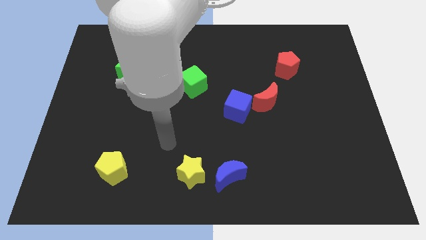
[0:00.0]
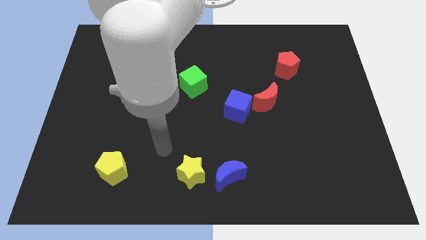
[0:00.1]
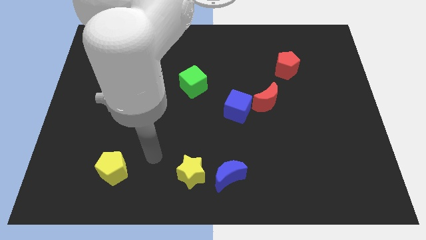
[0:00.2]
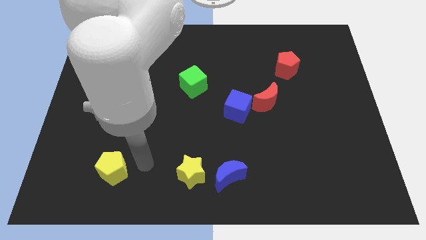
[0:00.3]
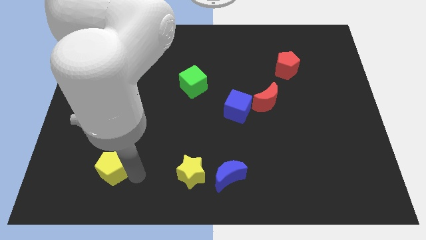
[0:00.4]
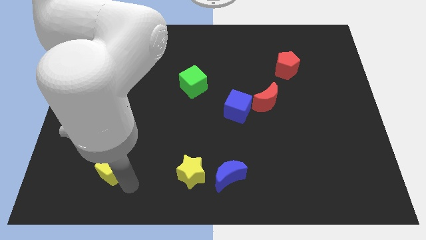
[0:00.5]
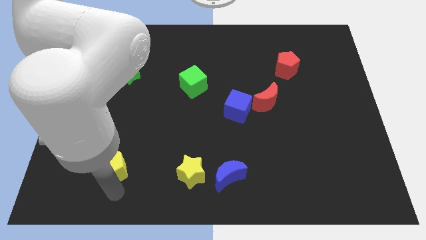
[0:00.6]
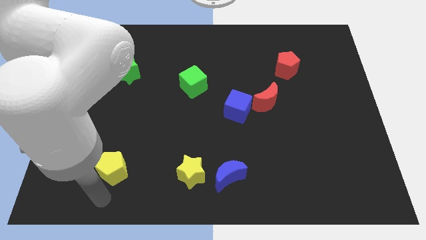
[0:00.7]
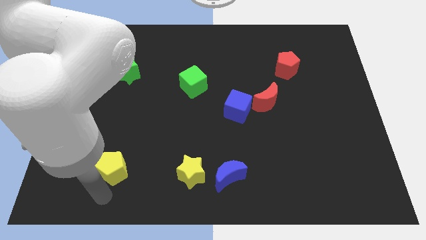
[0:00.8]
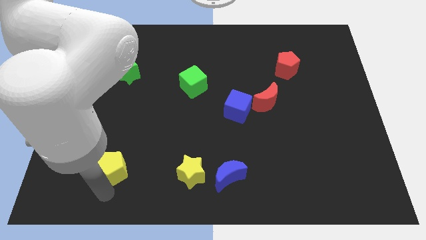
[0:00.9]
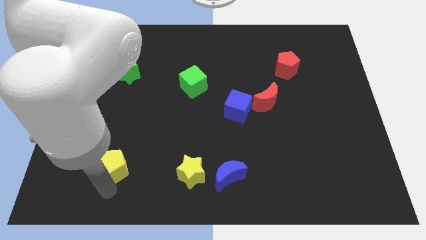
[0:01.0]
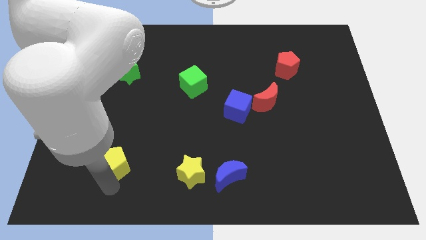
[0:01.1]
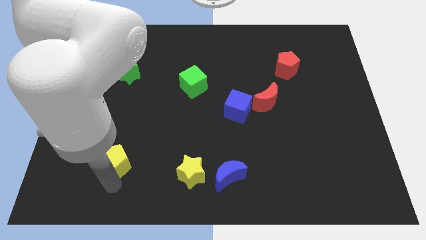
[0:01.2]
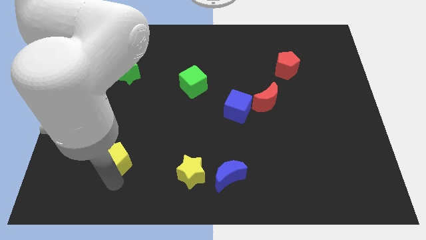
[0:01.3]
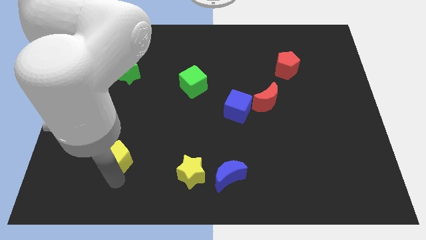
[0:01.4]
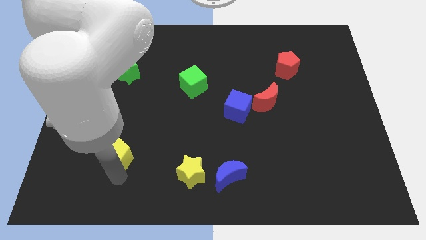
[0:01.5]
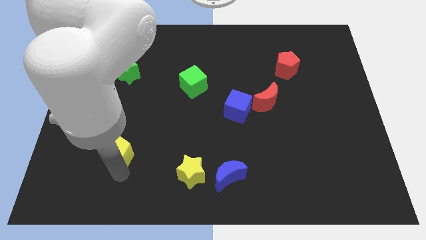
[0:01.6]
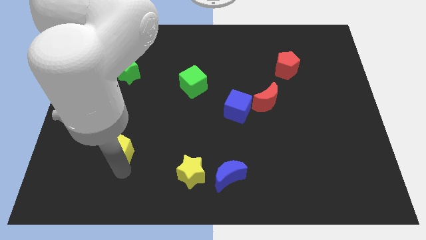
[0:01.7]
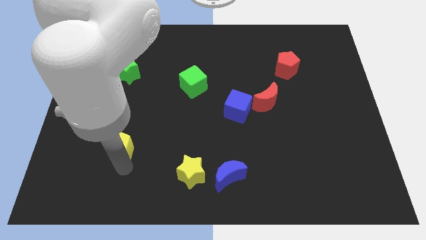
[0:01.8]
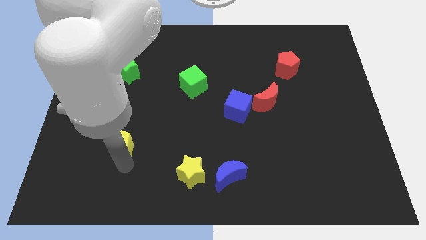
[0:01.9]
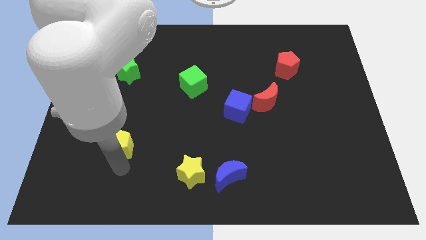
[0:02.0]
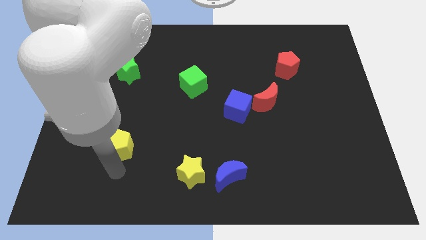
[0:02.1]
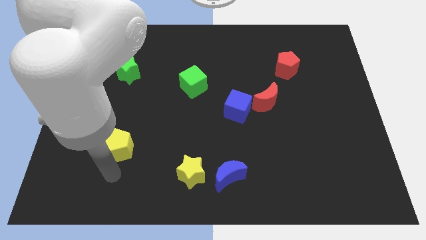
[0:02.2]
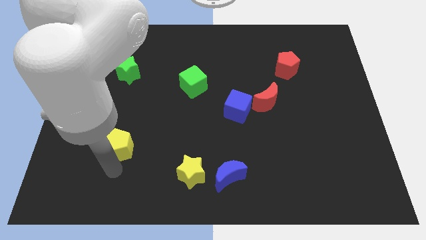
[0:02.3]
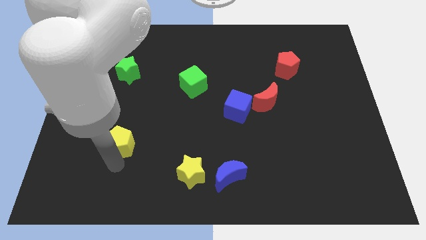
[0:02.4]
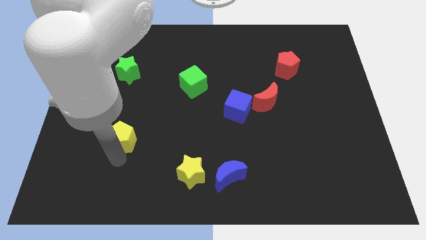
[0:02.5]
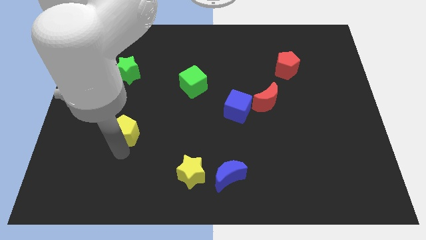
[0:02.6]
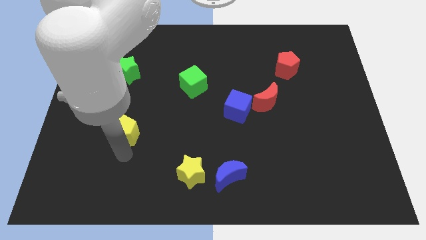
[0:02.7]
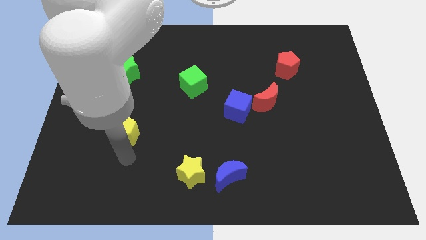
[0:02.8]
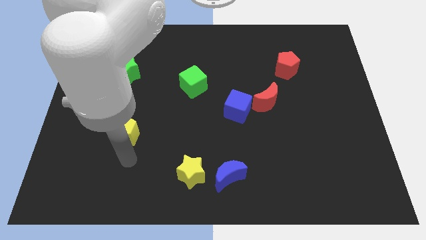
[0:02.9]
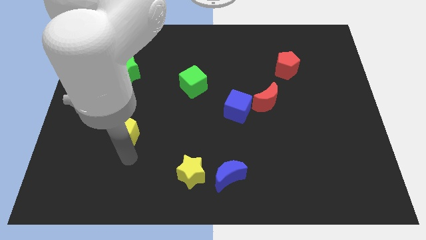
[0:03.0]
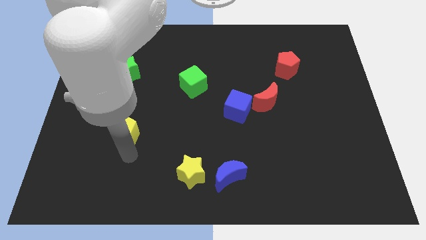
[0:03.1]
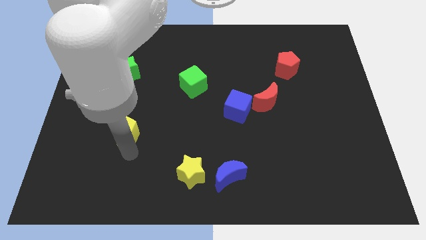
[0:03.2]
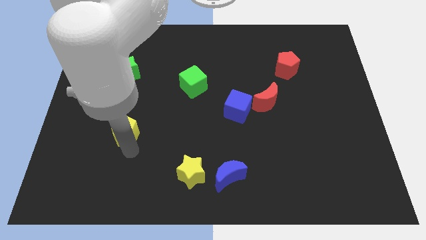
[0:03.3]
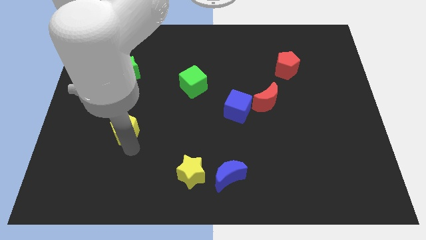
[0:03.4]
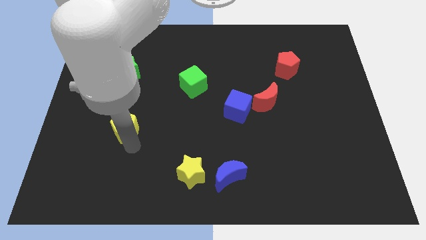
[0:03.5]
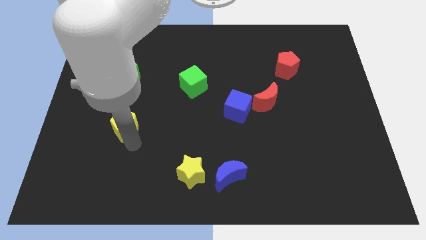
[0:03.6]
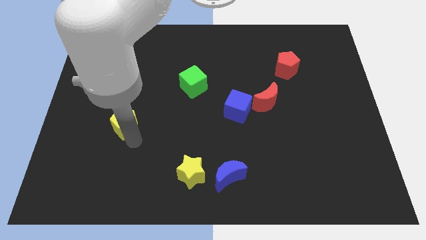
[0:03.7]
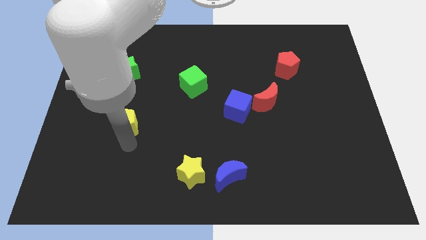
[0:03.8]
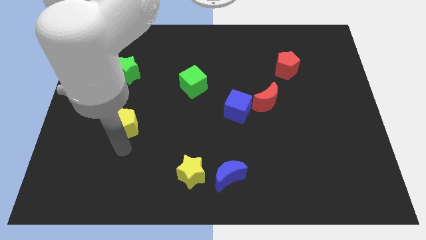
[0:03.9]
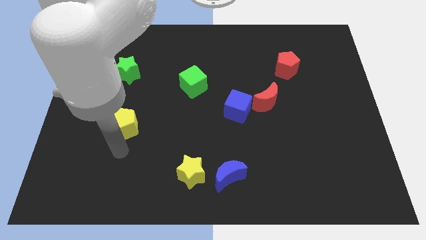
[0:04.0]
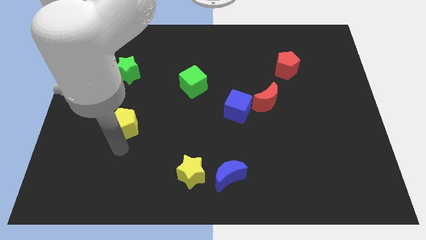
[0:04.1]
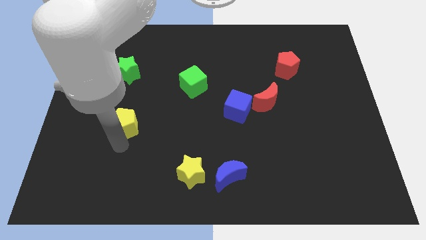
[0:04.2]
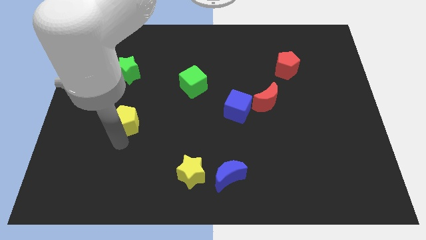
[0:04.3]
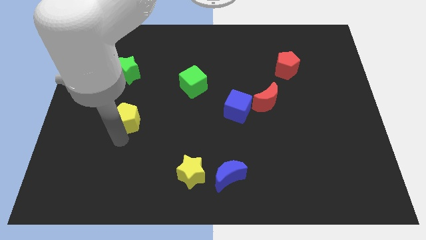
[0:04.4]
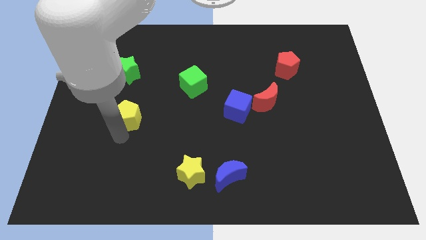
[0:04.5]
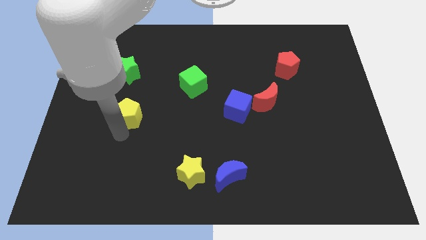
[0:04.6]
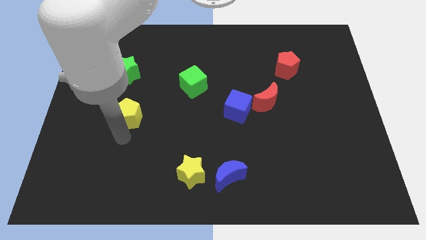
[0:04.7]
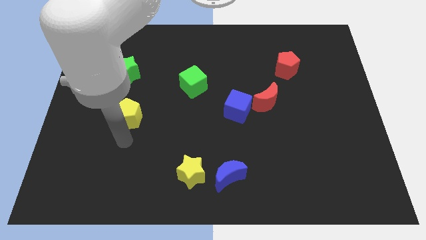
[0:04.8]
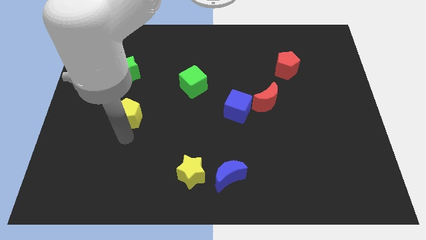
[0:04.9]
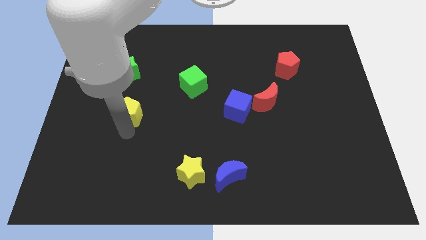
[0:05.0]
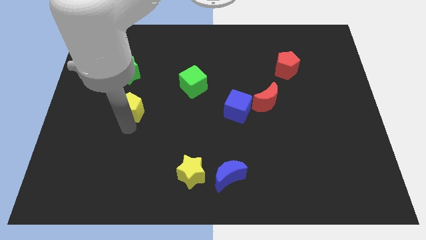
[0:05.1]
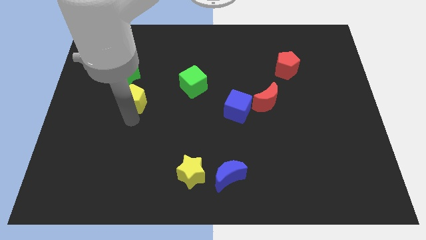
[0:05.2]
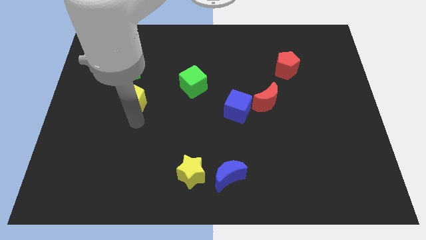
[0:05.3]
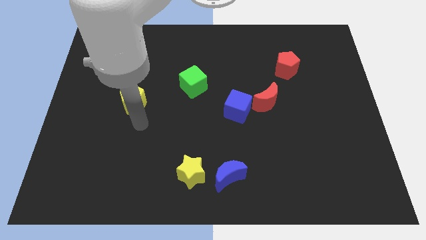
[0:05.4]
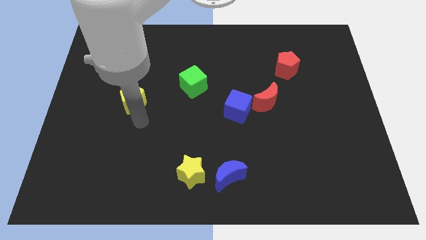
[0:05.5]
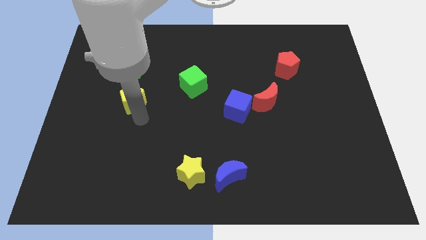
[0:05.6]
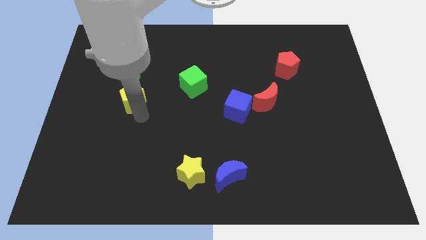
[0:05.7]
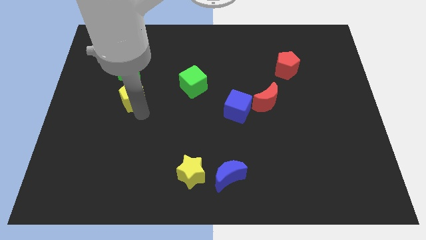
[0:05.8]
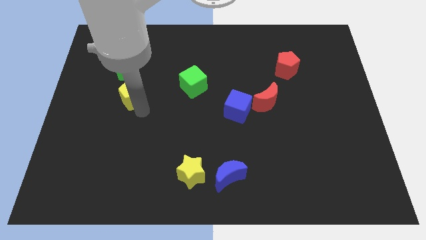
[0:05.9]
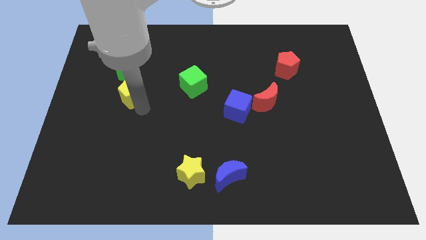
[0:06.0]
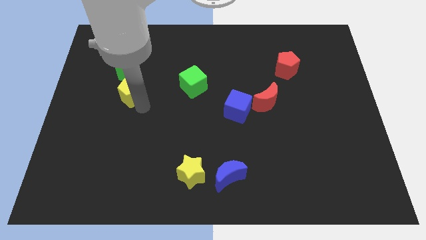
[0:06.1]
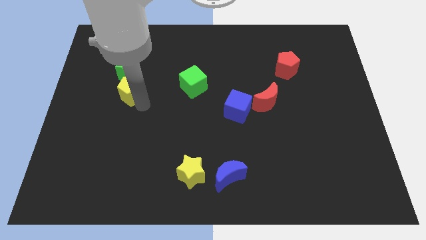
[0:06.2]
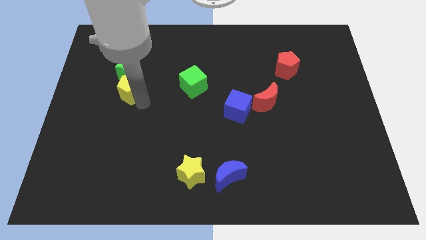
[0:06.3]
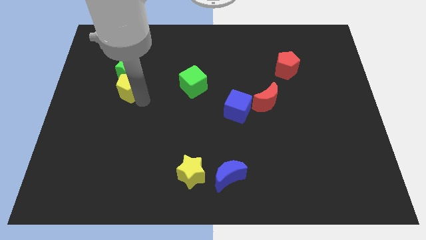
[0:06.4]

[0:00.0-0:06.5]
move the yellow pentagon towards the green star

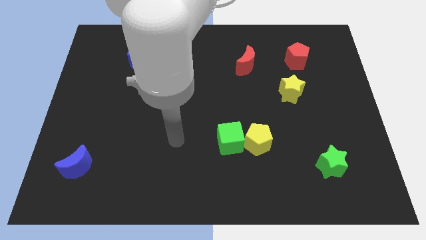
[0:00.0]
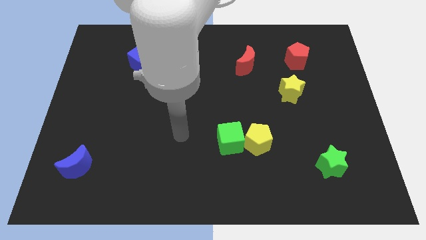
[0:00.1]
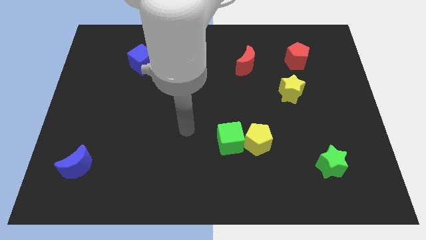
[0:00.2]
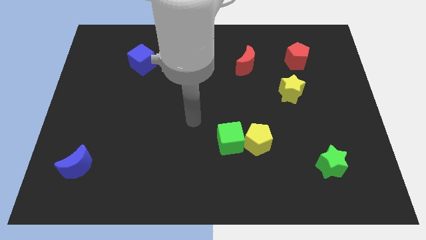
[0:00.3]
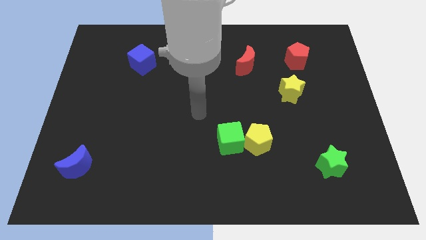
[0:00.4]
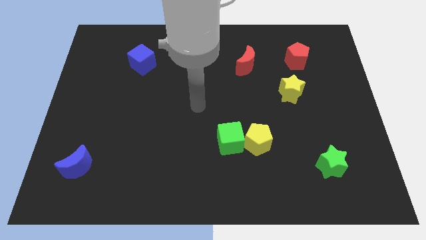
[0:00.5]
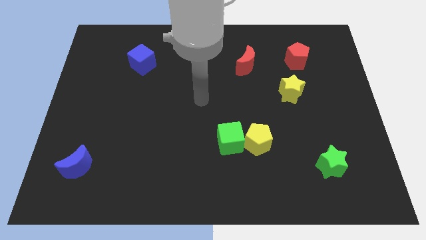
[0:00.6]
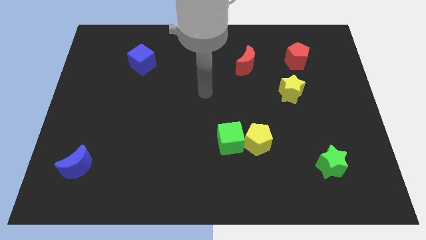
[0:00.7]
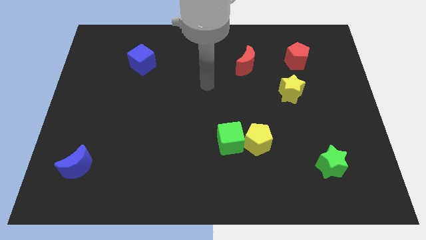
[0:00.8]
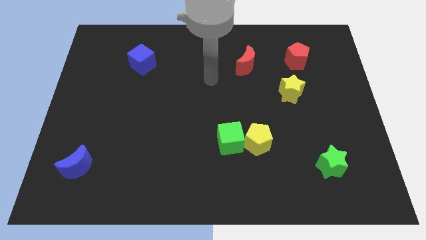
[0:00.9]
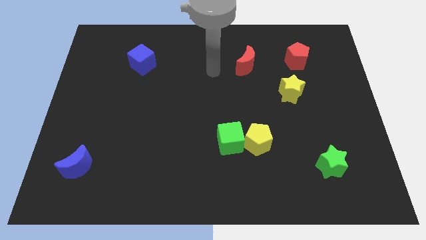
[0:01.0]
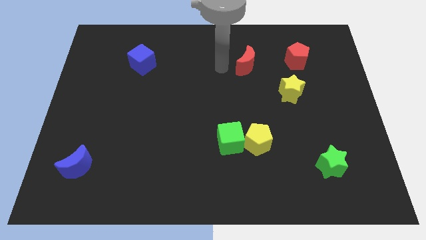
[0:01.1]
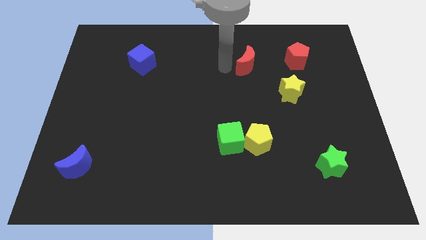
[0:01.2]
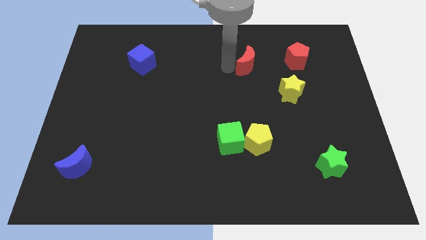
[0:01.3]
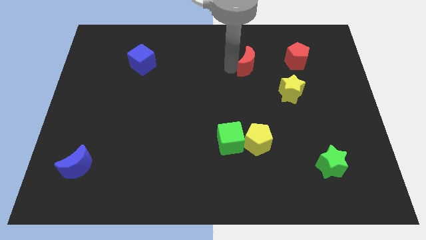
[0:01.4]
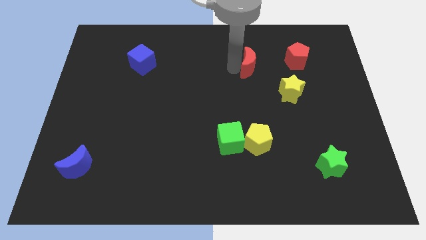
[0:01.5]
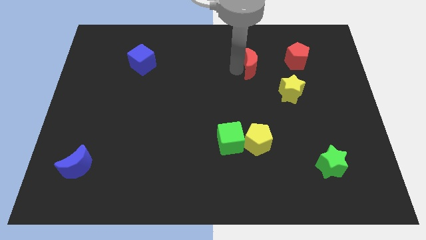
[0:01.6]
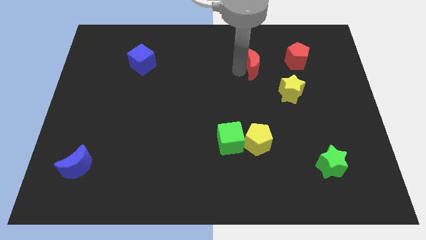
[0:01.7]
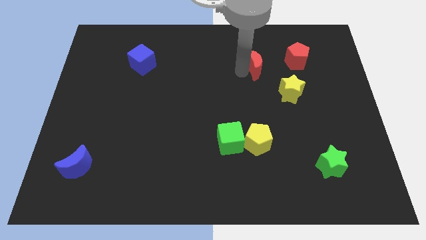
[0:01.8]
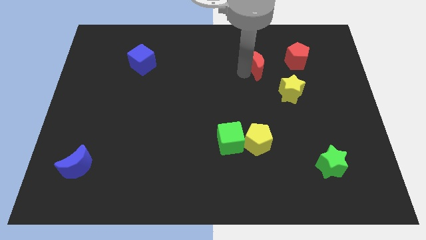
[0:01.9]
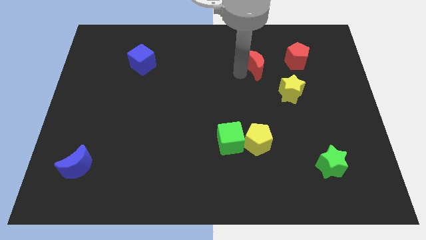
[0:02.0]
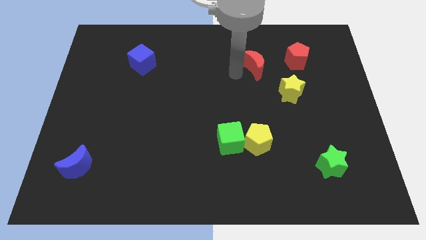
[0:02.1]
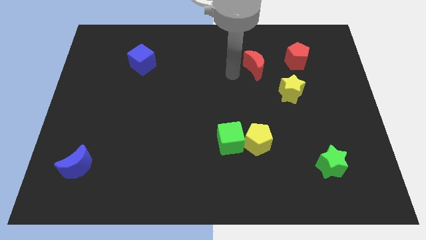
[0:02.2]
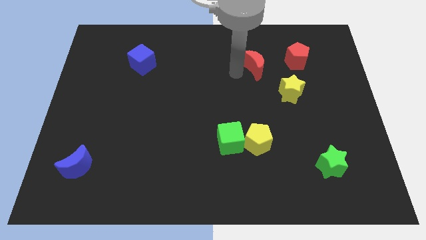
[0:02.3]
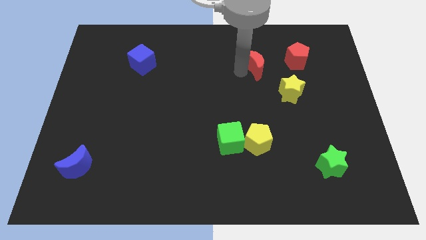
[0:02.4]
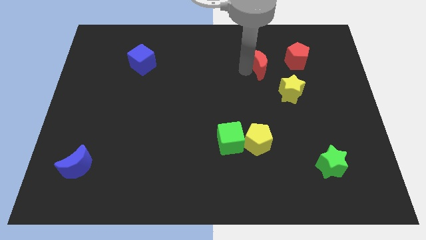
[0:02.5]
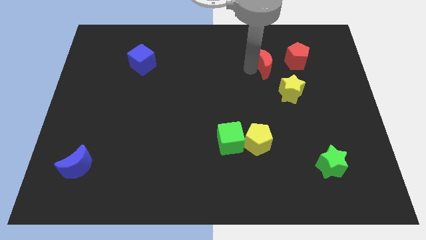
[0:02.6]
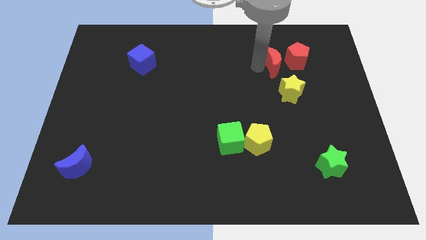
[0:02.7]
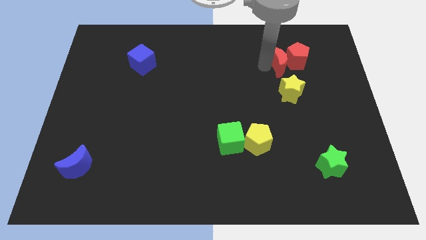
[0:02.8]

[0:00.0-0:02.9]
push the red moon to the red pentagon
